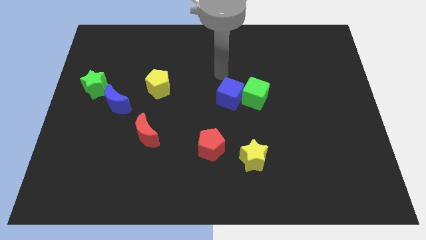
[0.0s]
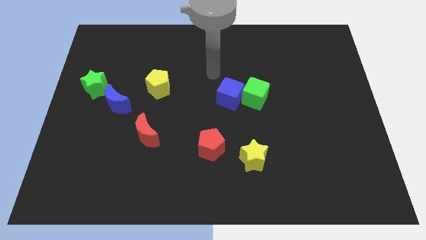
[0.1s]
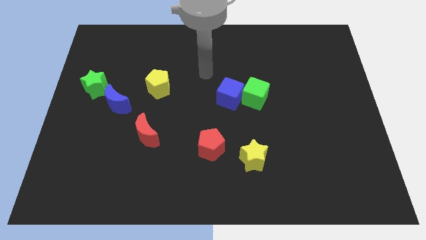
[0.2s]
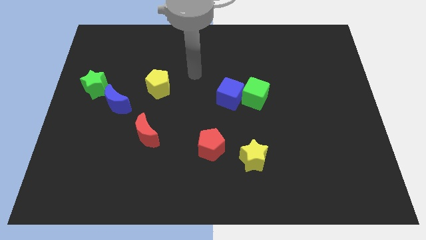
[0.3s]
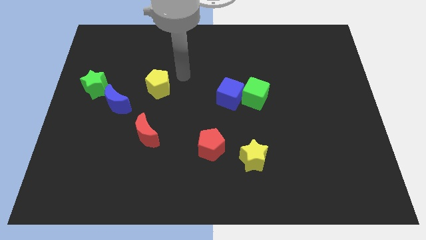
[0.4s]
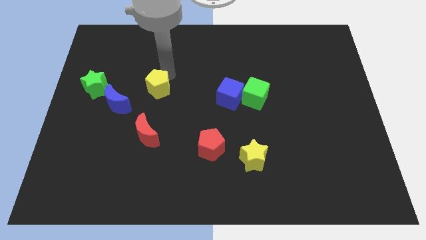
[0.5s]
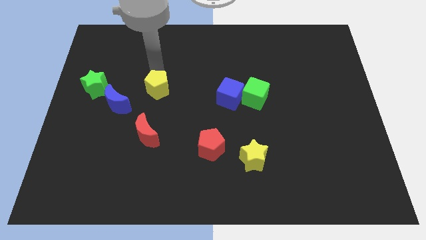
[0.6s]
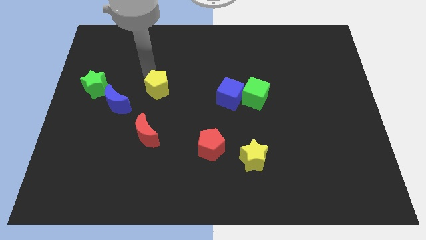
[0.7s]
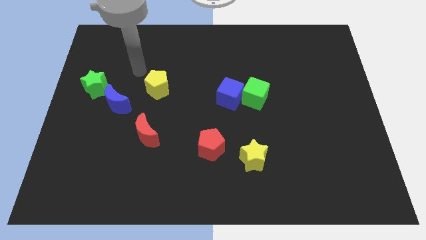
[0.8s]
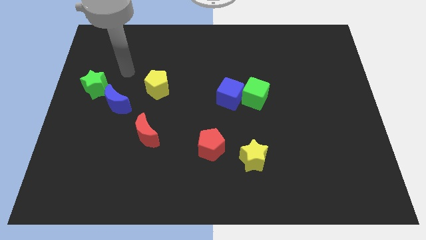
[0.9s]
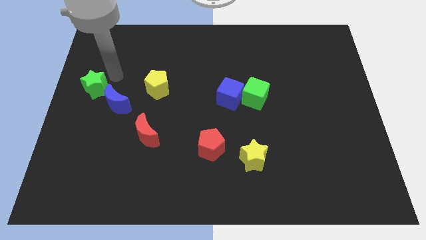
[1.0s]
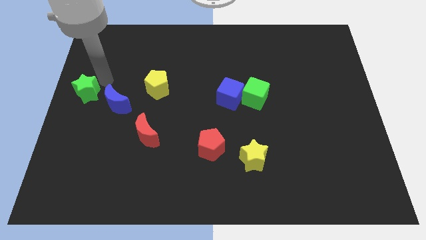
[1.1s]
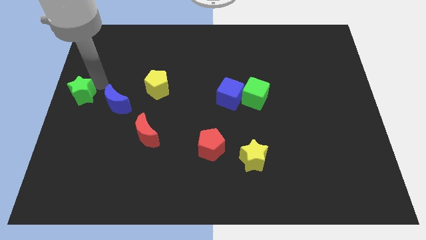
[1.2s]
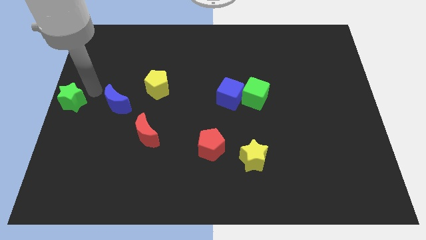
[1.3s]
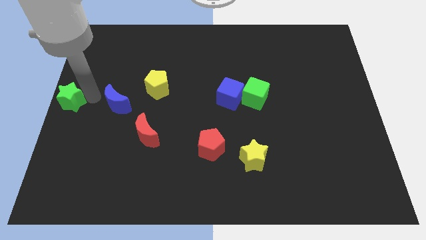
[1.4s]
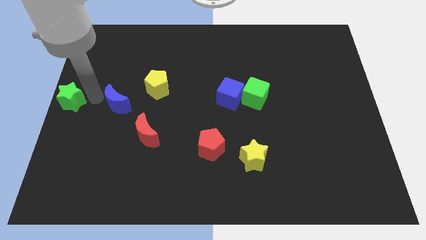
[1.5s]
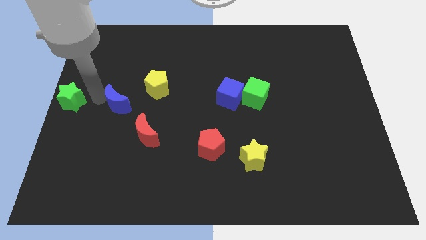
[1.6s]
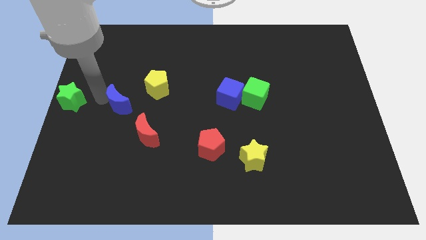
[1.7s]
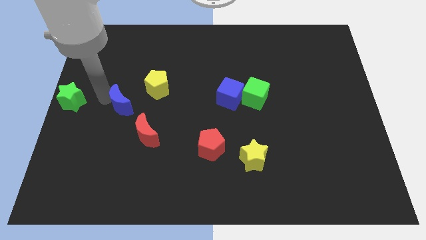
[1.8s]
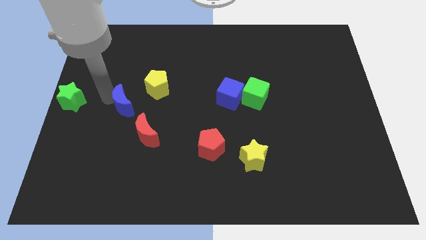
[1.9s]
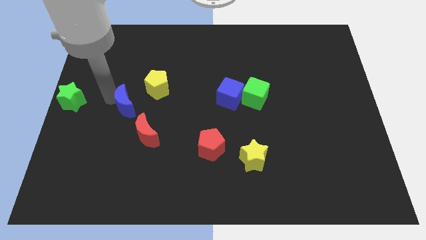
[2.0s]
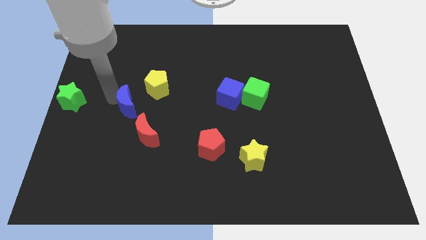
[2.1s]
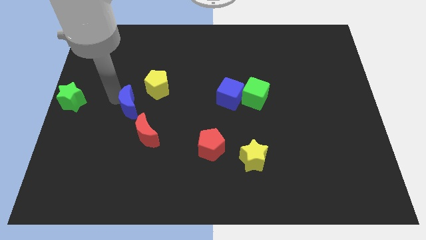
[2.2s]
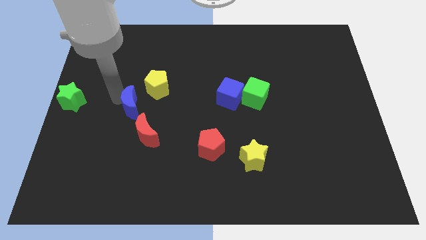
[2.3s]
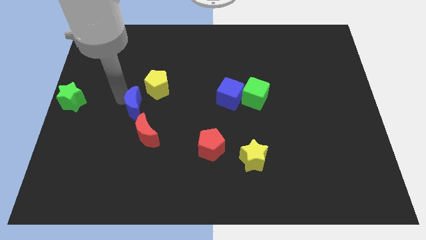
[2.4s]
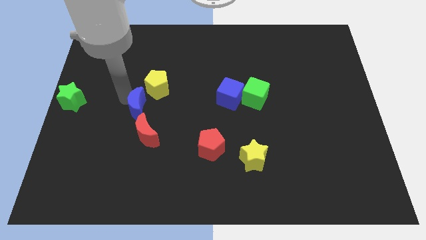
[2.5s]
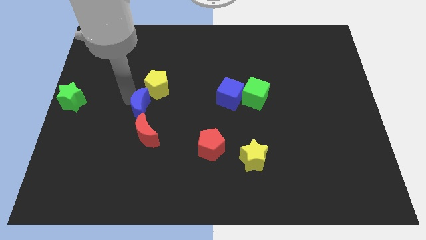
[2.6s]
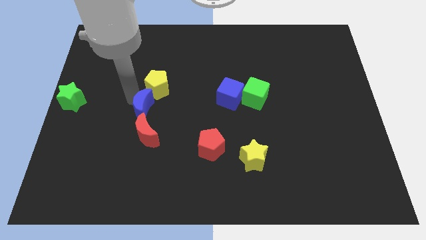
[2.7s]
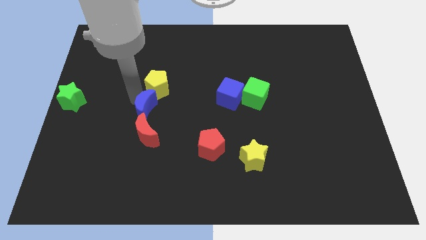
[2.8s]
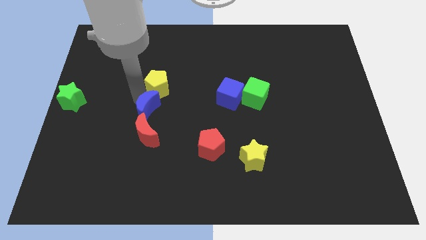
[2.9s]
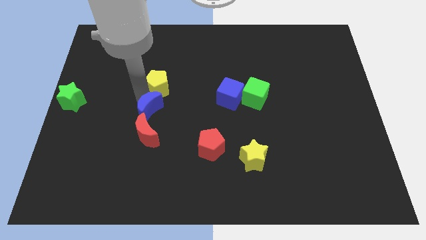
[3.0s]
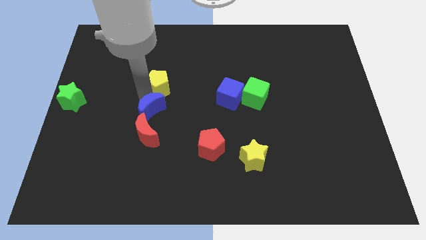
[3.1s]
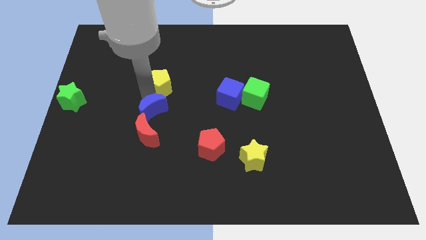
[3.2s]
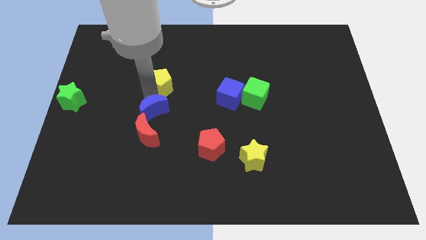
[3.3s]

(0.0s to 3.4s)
move the blue moon diagonally downwards and right a little

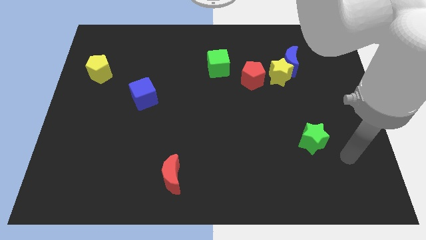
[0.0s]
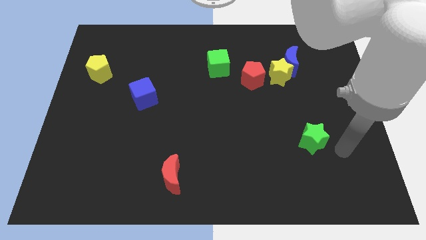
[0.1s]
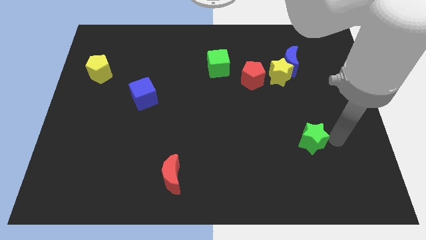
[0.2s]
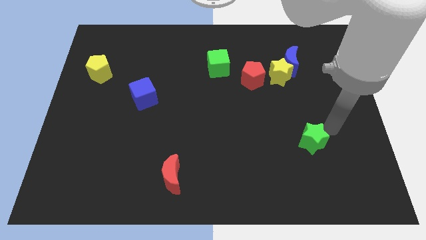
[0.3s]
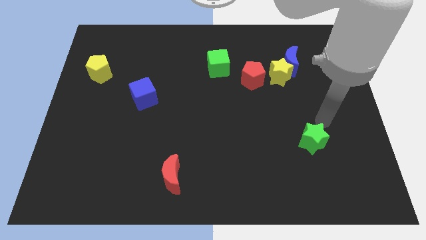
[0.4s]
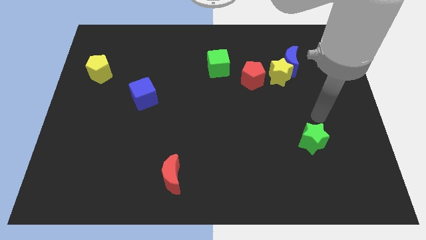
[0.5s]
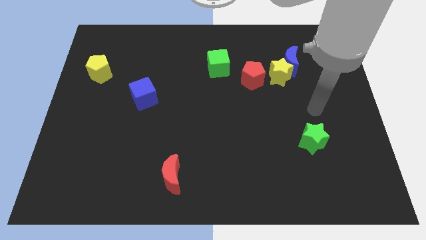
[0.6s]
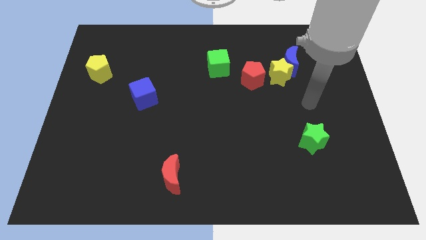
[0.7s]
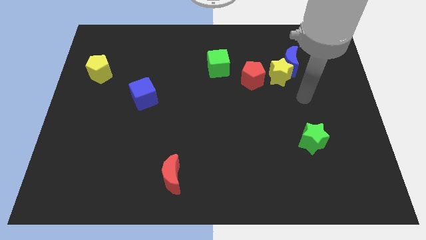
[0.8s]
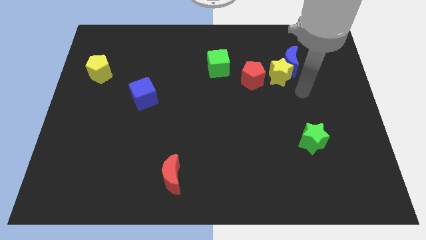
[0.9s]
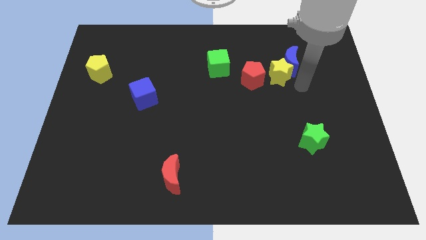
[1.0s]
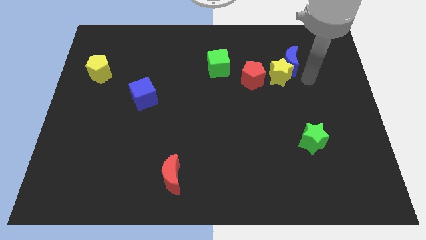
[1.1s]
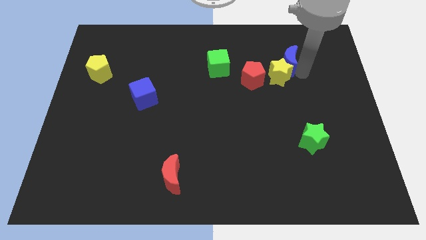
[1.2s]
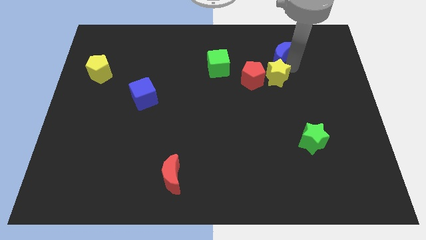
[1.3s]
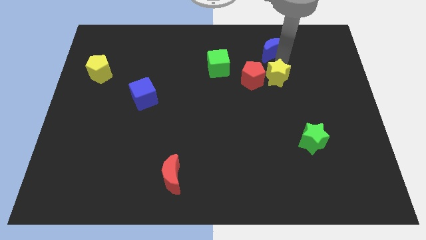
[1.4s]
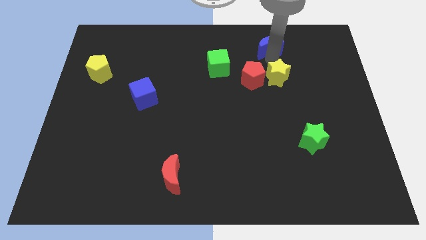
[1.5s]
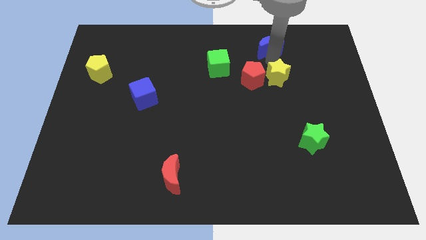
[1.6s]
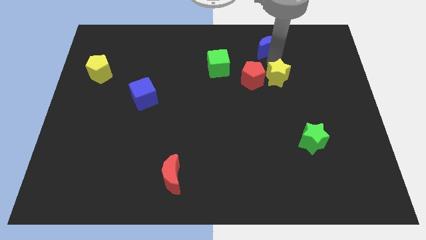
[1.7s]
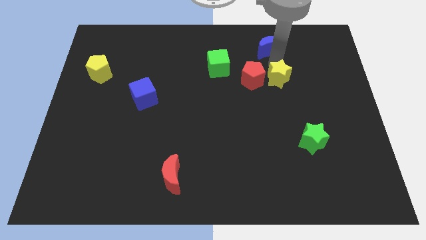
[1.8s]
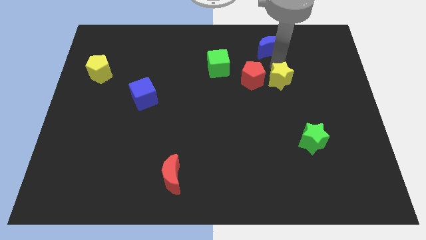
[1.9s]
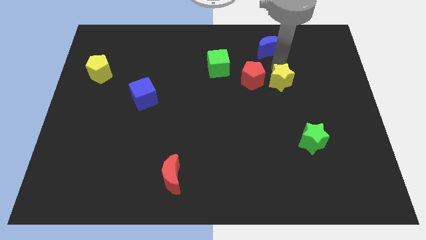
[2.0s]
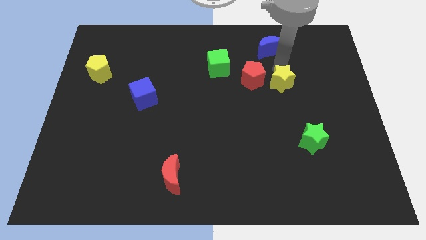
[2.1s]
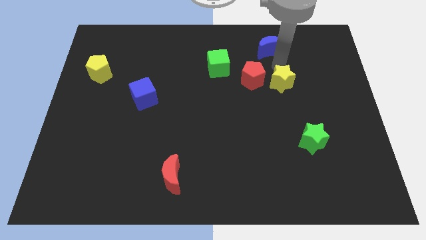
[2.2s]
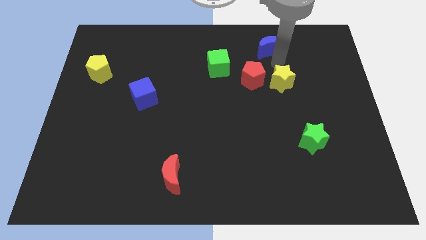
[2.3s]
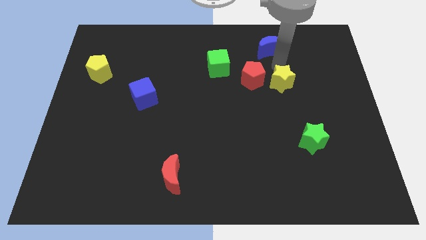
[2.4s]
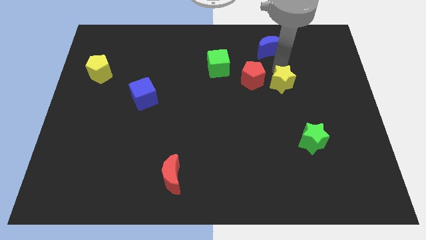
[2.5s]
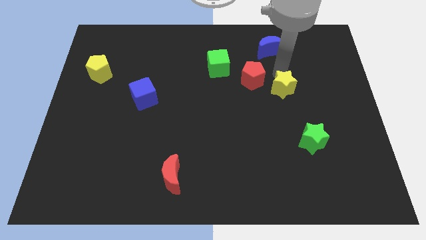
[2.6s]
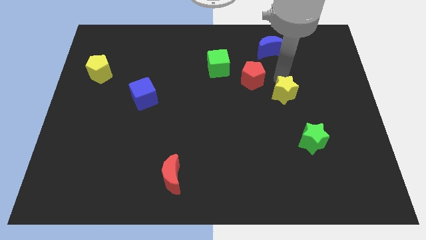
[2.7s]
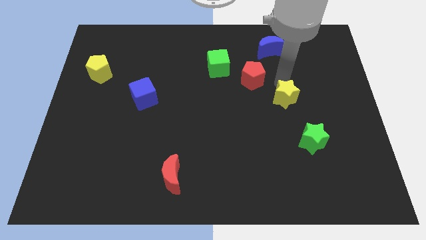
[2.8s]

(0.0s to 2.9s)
slightly move the yellow star downwards

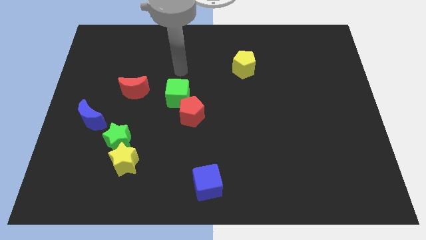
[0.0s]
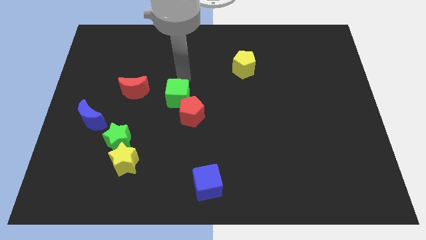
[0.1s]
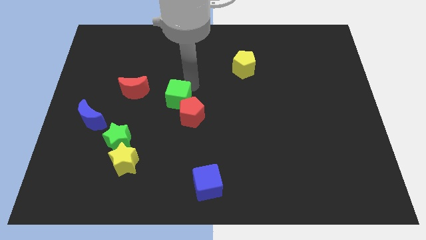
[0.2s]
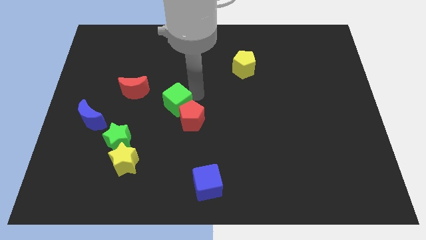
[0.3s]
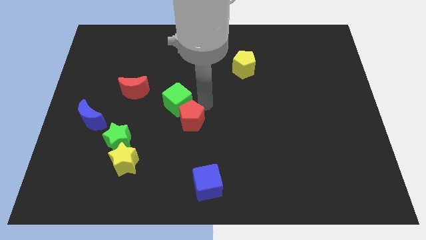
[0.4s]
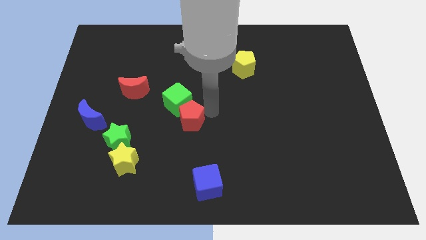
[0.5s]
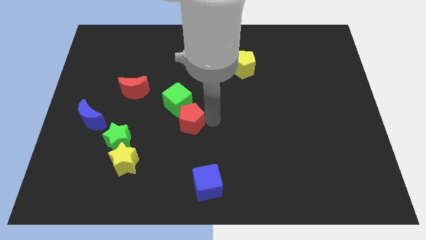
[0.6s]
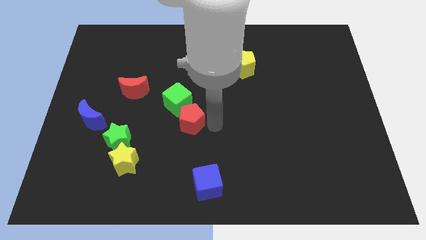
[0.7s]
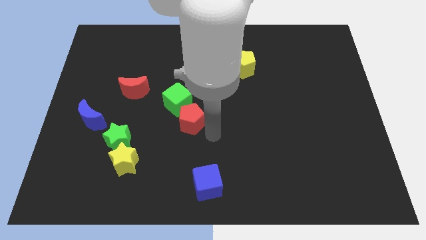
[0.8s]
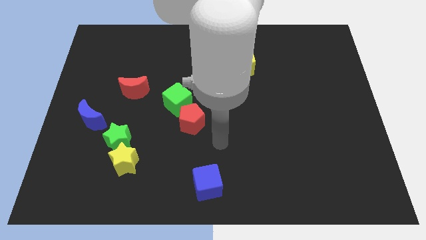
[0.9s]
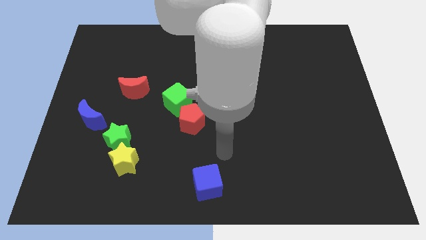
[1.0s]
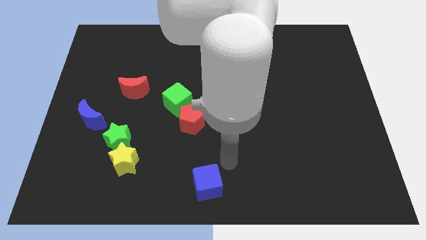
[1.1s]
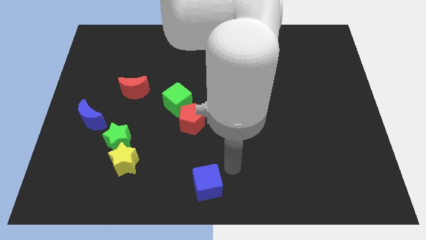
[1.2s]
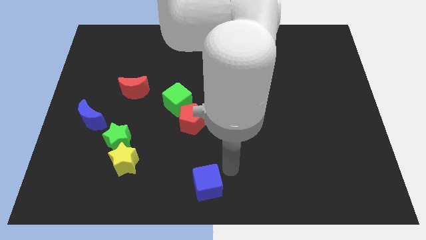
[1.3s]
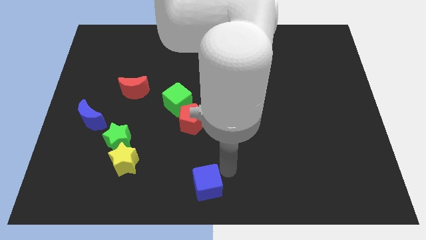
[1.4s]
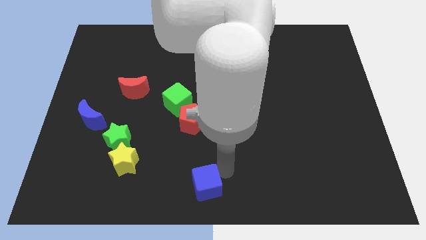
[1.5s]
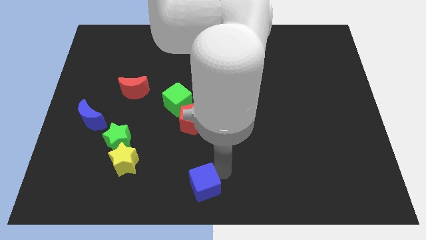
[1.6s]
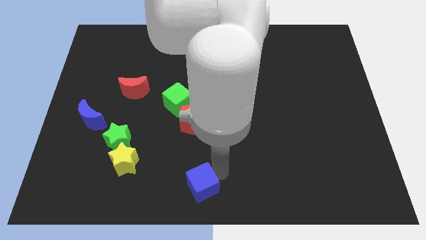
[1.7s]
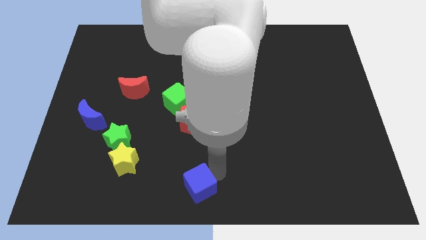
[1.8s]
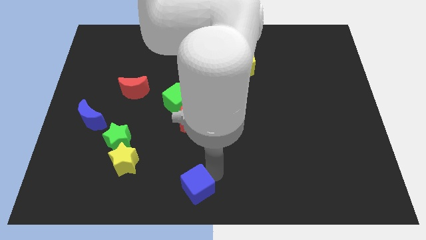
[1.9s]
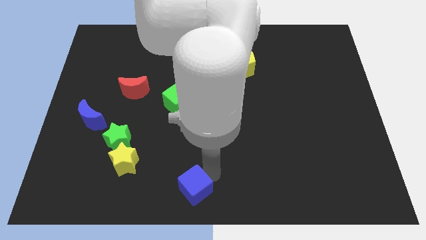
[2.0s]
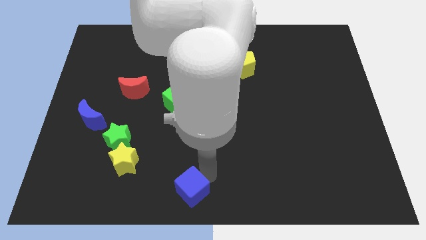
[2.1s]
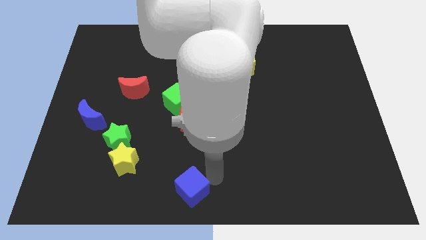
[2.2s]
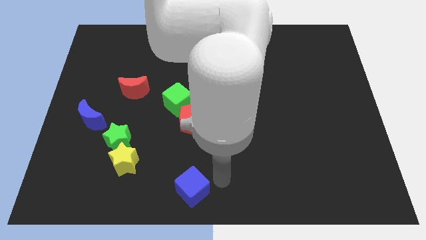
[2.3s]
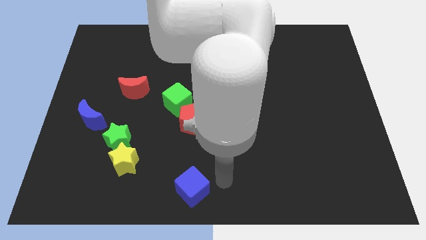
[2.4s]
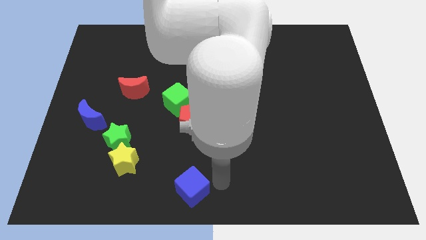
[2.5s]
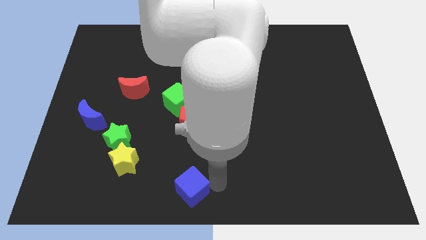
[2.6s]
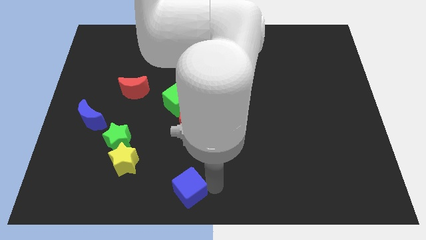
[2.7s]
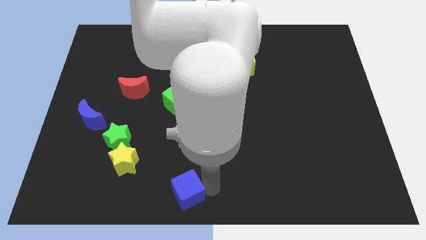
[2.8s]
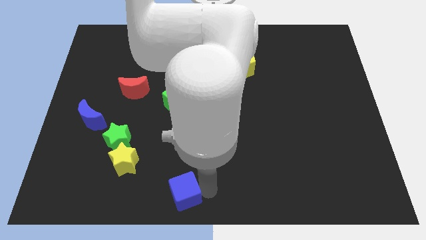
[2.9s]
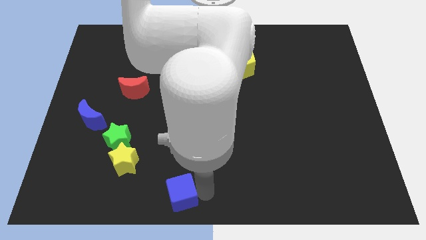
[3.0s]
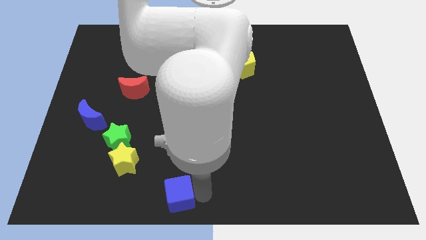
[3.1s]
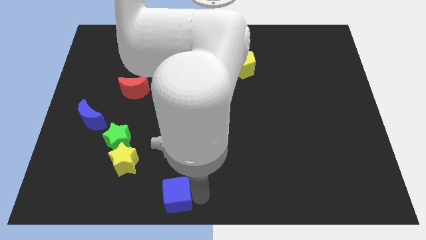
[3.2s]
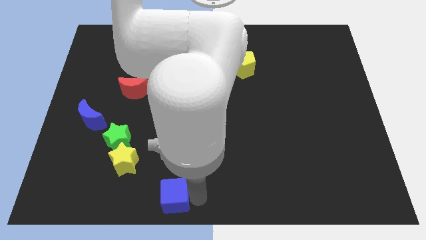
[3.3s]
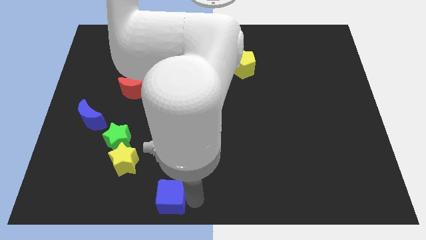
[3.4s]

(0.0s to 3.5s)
slightly push the blue cube to the left
